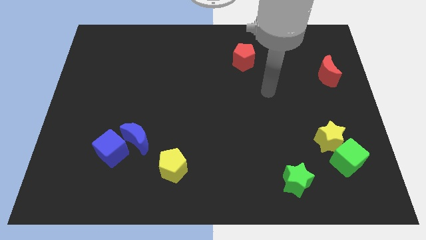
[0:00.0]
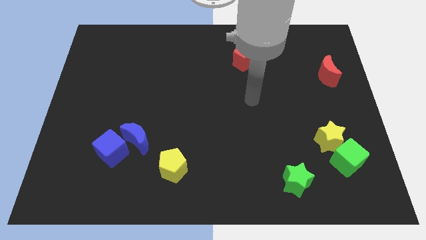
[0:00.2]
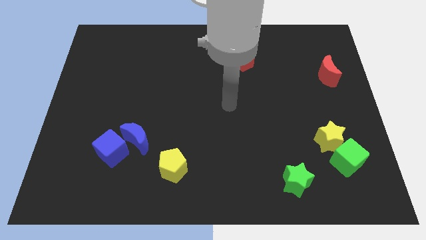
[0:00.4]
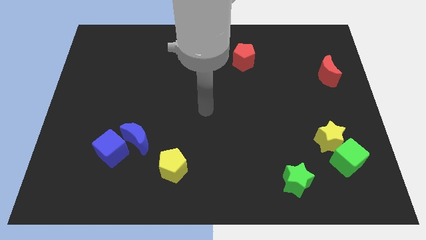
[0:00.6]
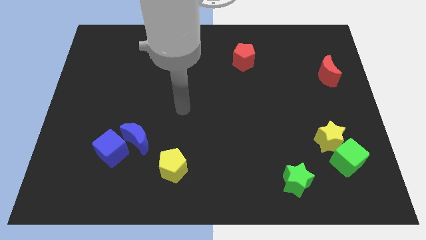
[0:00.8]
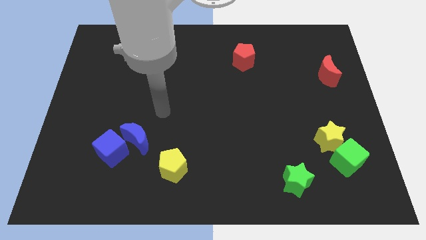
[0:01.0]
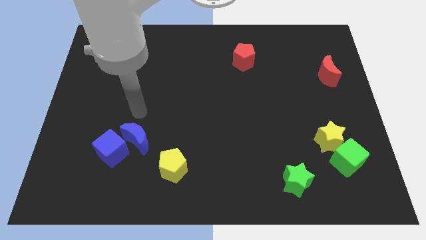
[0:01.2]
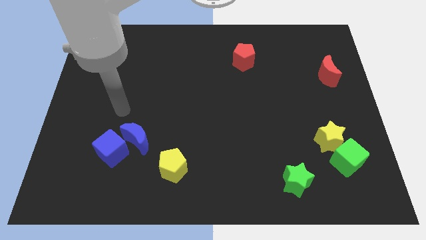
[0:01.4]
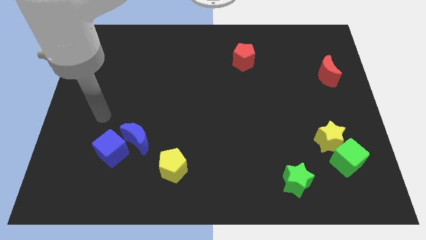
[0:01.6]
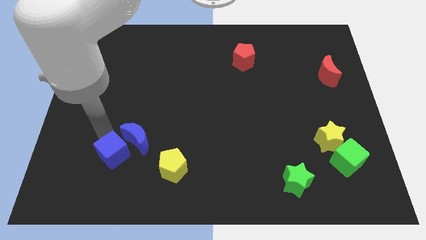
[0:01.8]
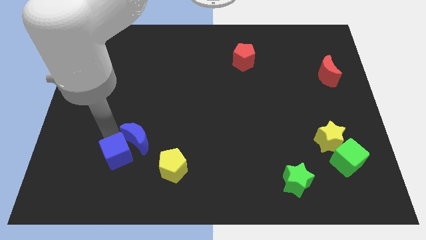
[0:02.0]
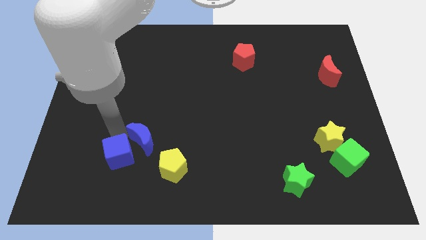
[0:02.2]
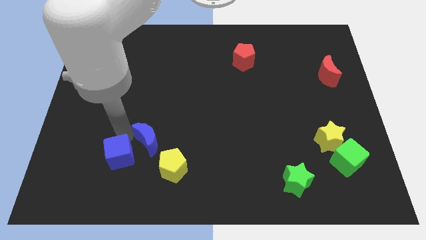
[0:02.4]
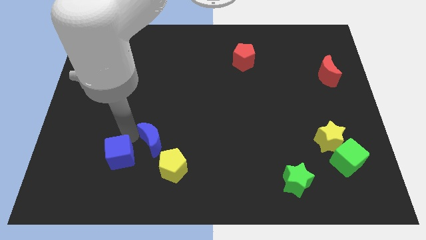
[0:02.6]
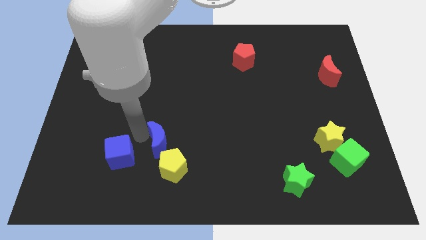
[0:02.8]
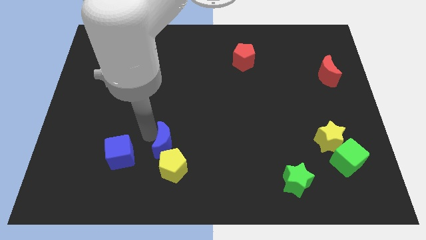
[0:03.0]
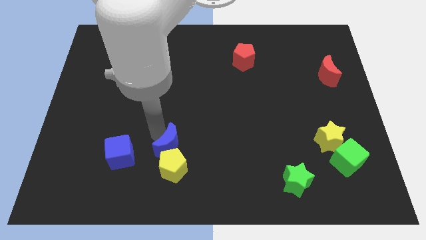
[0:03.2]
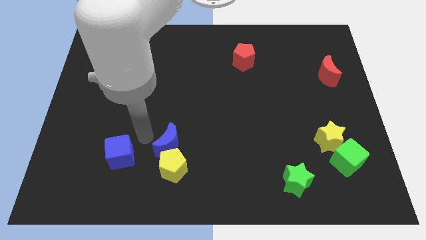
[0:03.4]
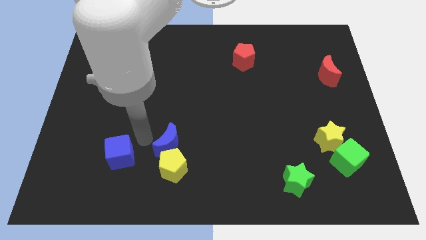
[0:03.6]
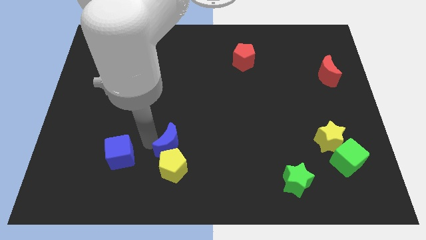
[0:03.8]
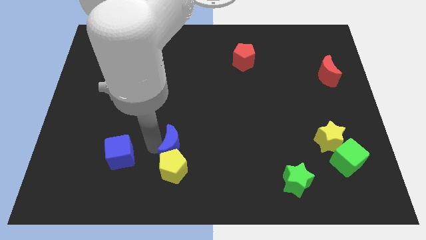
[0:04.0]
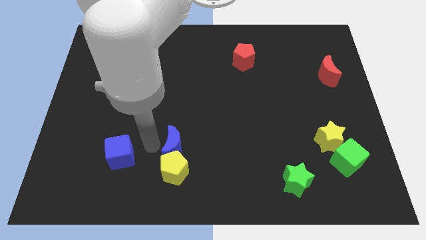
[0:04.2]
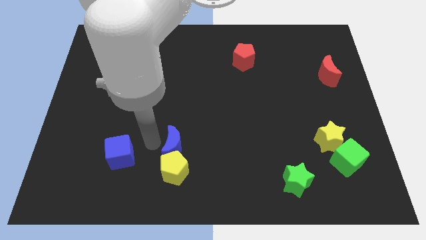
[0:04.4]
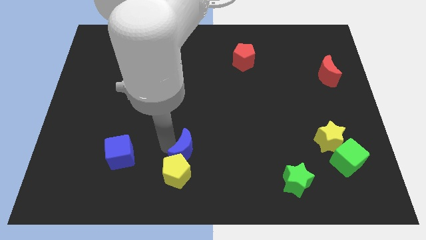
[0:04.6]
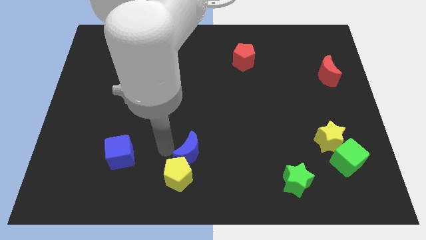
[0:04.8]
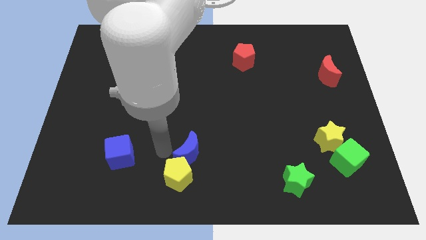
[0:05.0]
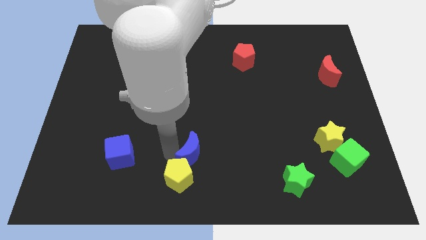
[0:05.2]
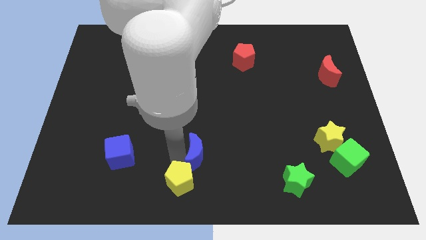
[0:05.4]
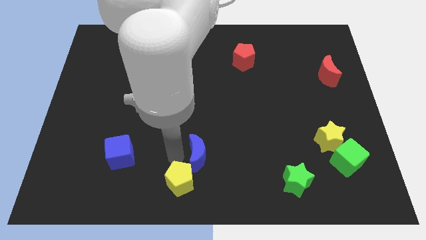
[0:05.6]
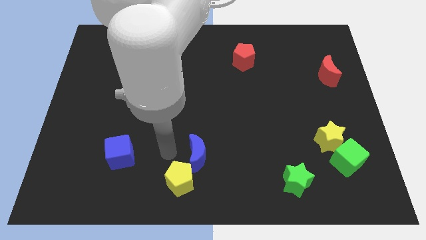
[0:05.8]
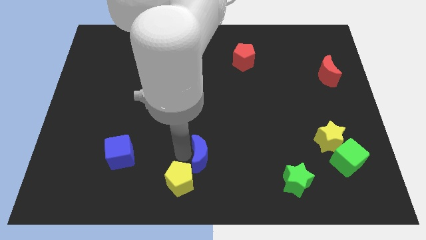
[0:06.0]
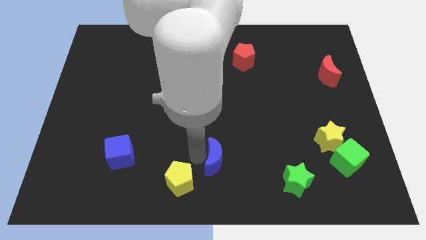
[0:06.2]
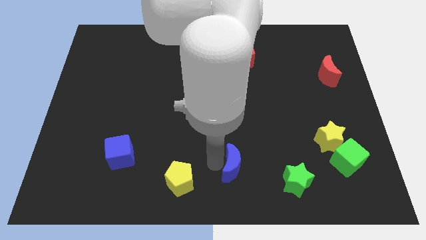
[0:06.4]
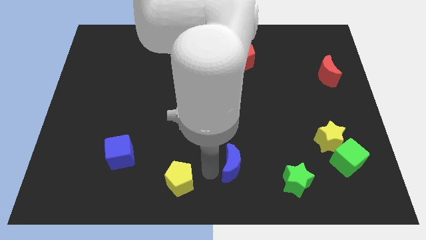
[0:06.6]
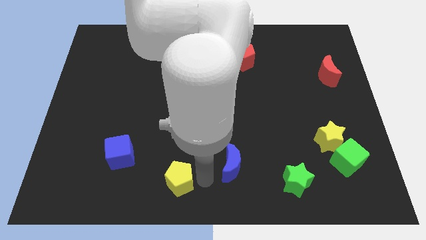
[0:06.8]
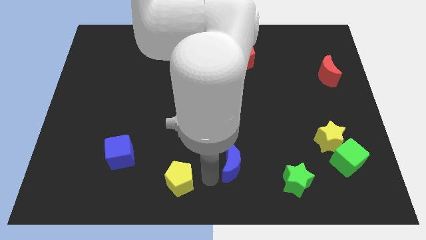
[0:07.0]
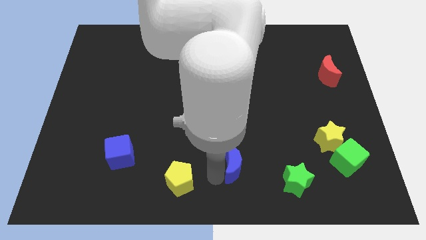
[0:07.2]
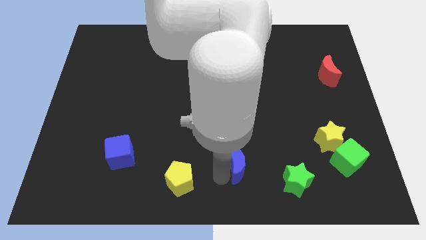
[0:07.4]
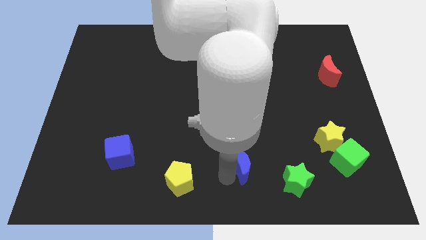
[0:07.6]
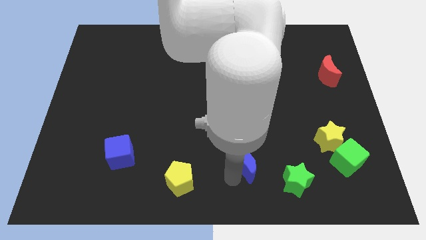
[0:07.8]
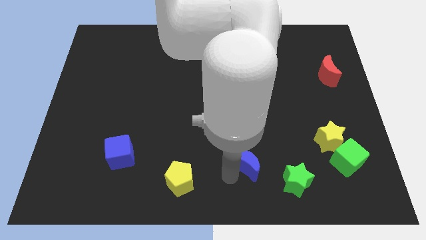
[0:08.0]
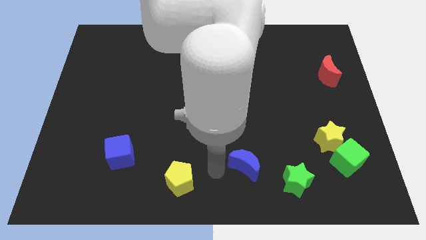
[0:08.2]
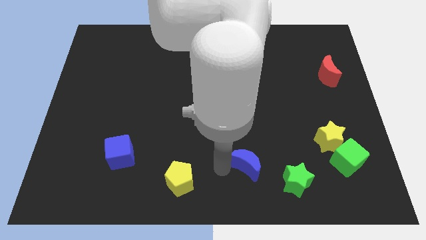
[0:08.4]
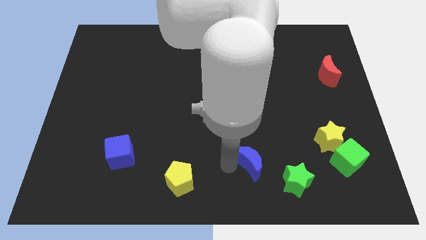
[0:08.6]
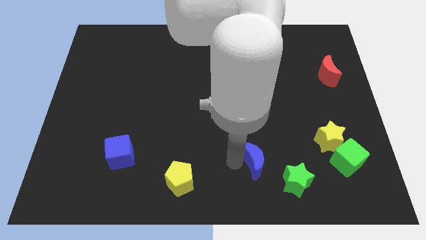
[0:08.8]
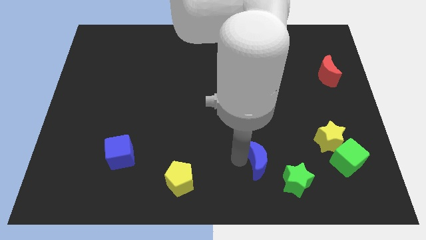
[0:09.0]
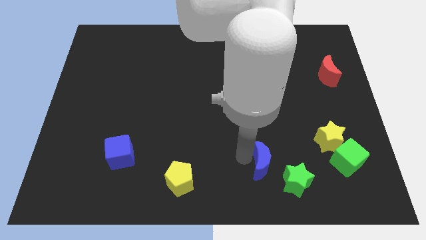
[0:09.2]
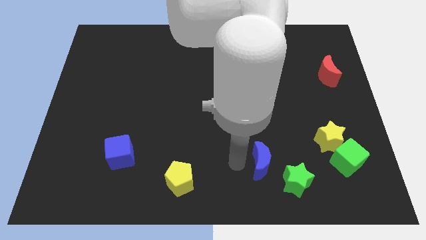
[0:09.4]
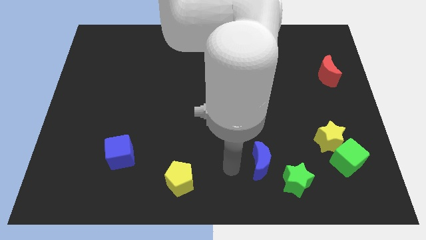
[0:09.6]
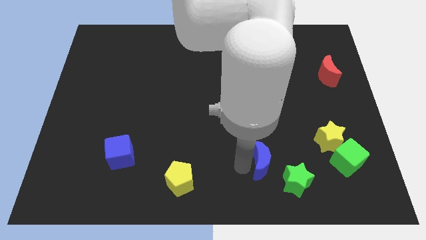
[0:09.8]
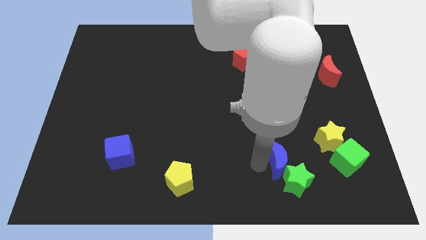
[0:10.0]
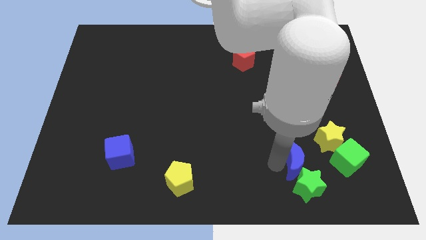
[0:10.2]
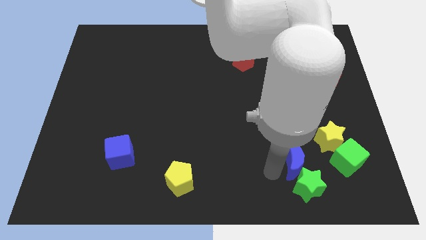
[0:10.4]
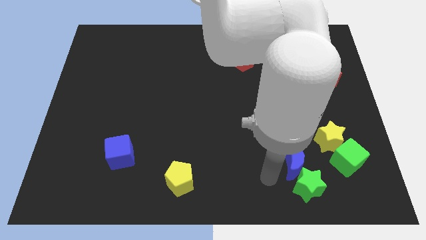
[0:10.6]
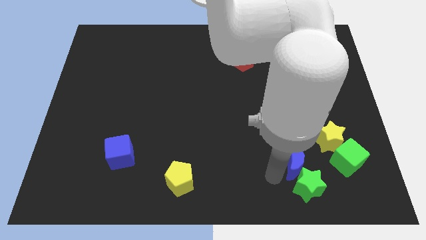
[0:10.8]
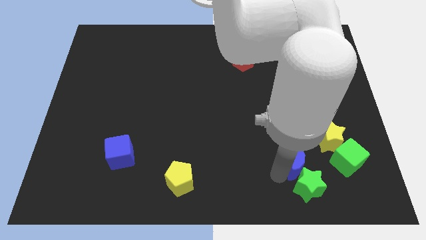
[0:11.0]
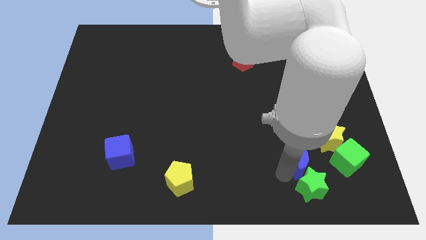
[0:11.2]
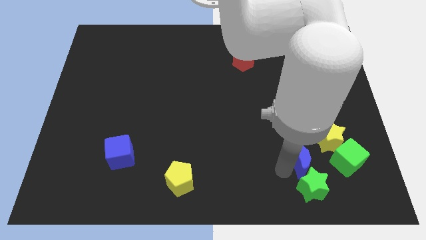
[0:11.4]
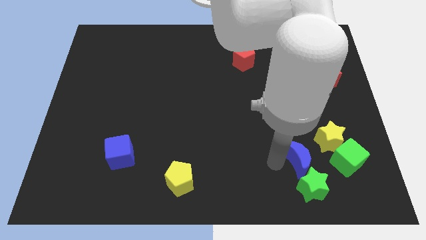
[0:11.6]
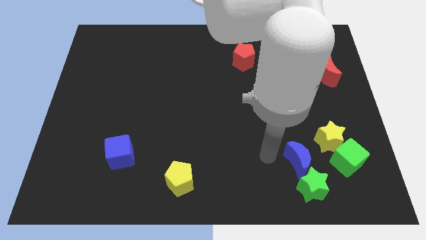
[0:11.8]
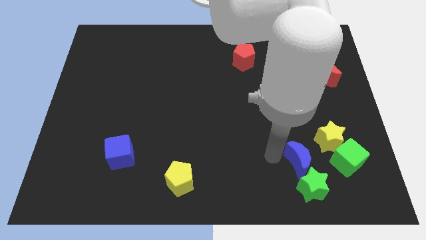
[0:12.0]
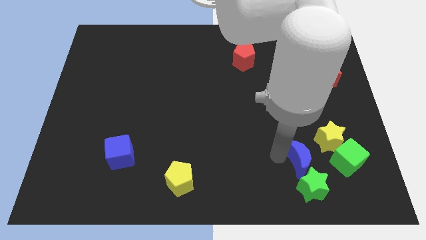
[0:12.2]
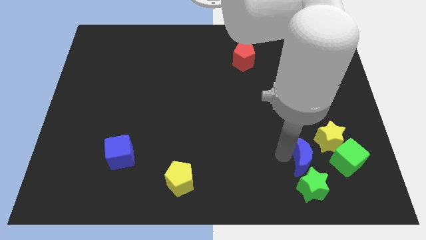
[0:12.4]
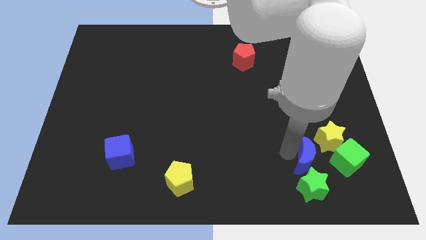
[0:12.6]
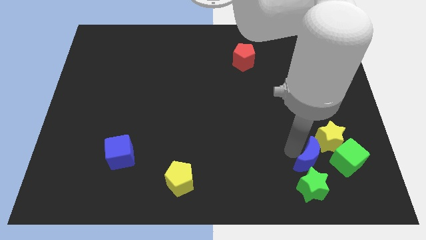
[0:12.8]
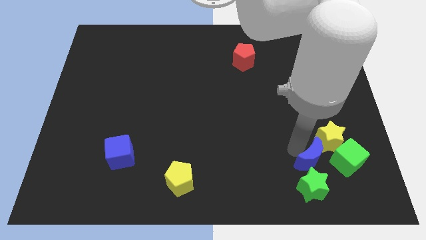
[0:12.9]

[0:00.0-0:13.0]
slide the blue moon to the bottom side of the yellow star
